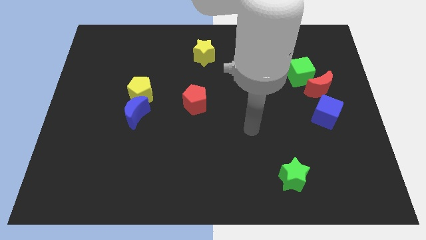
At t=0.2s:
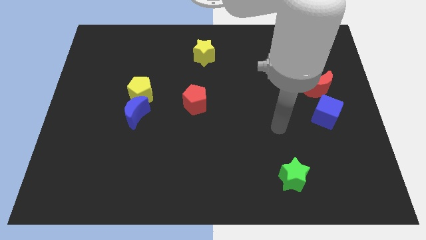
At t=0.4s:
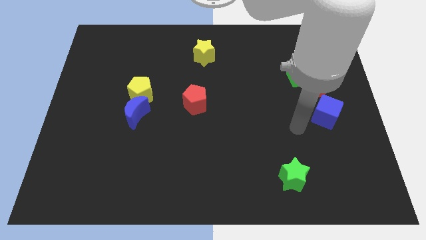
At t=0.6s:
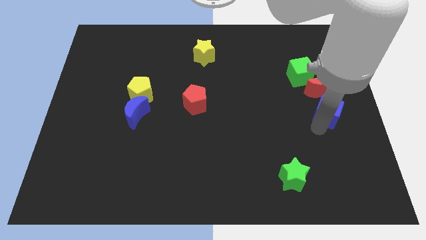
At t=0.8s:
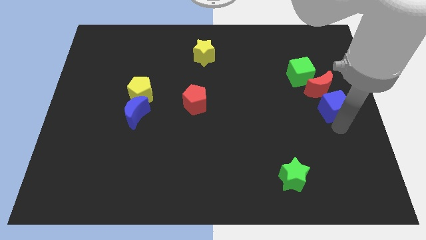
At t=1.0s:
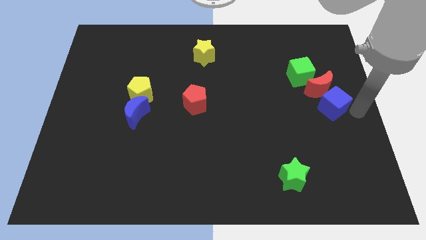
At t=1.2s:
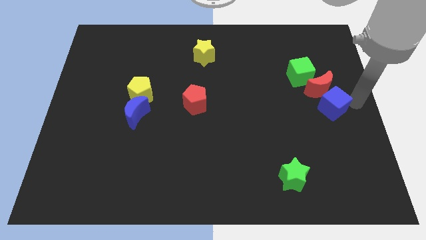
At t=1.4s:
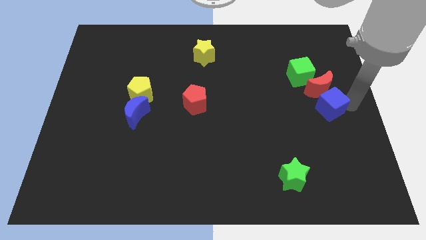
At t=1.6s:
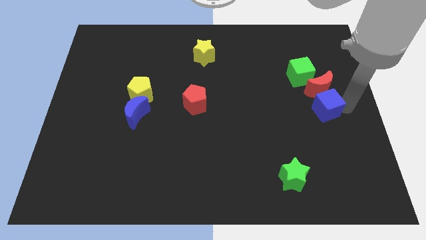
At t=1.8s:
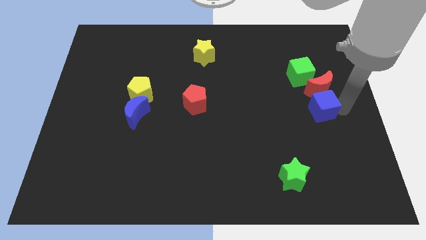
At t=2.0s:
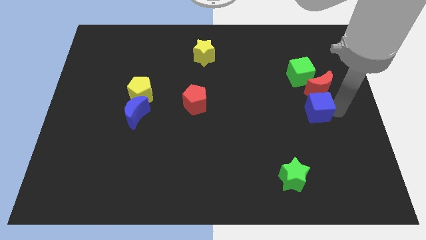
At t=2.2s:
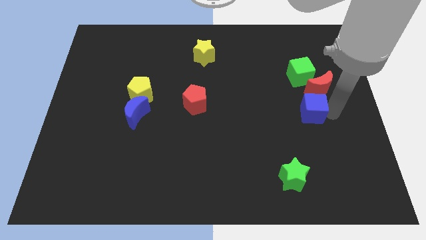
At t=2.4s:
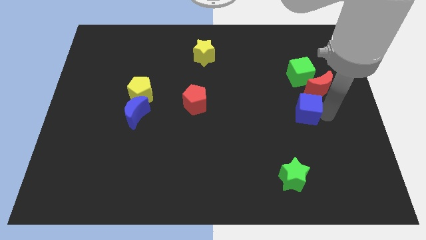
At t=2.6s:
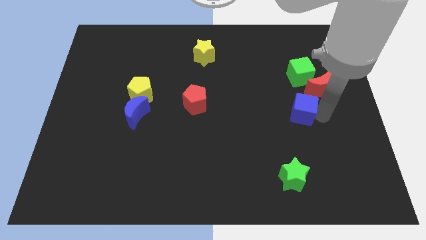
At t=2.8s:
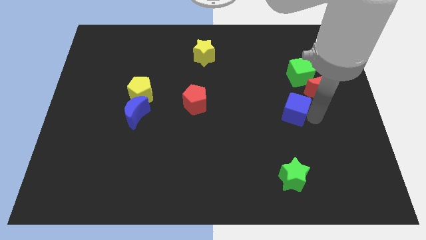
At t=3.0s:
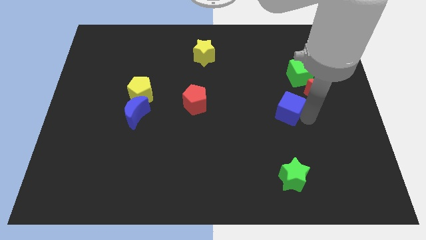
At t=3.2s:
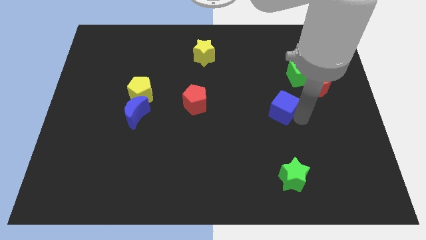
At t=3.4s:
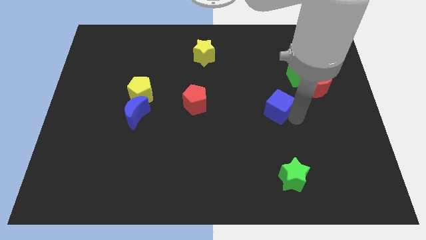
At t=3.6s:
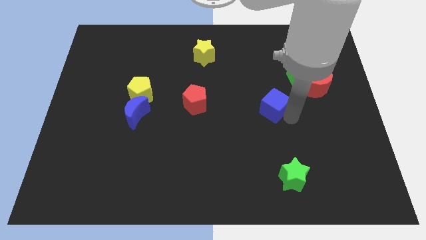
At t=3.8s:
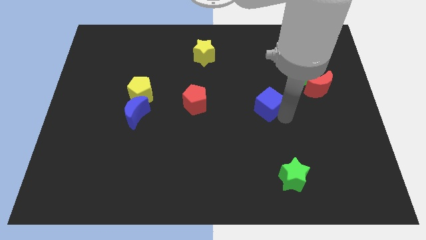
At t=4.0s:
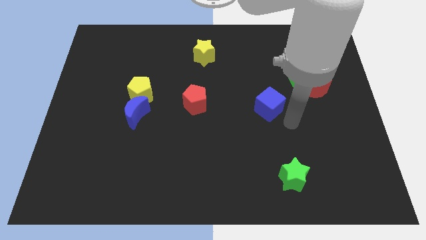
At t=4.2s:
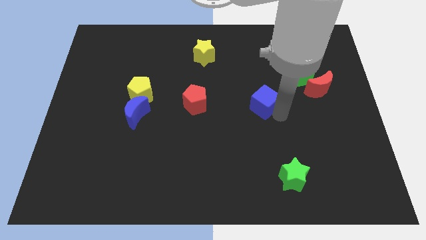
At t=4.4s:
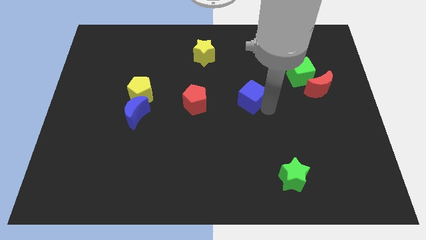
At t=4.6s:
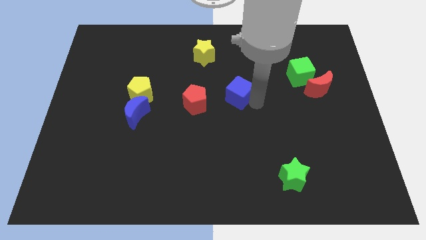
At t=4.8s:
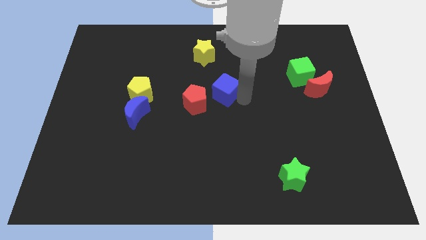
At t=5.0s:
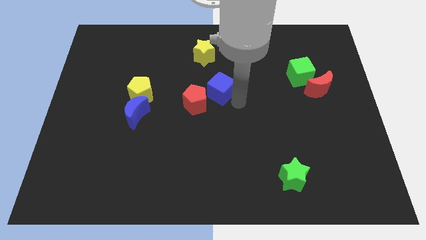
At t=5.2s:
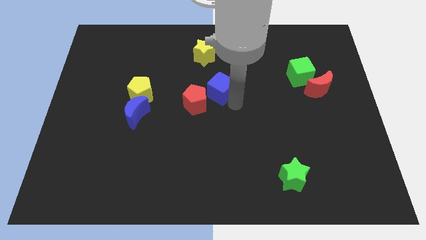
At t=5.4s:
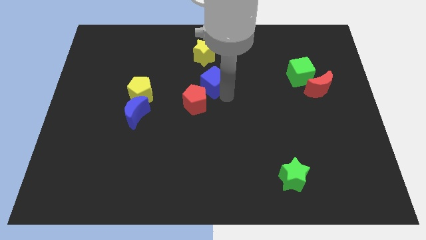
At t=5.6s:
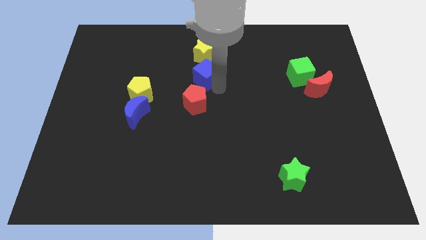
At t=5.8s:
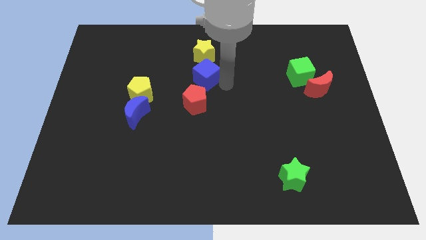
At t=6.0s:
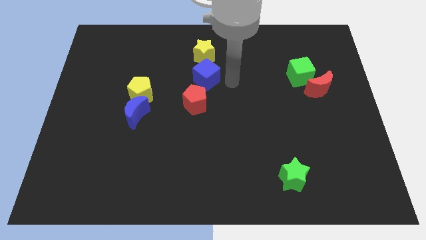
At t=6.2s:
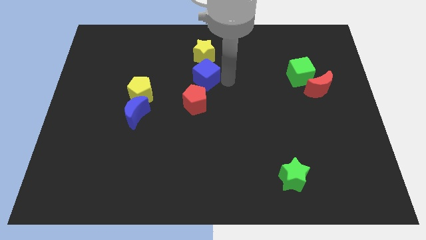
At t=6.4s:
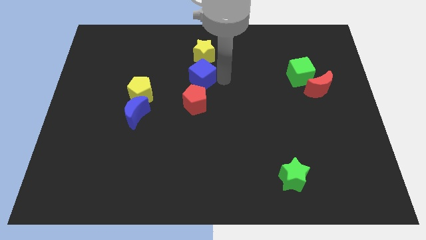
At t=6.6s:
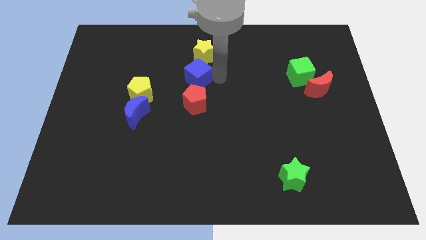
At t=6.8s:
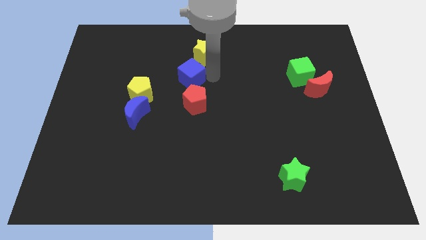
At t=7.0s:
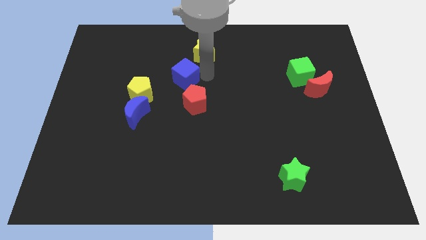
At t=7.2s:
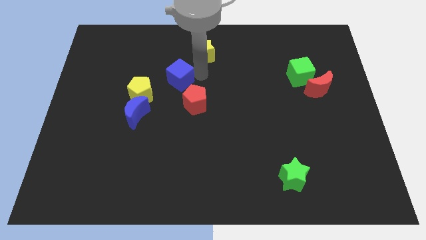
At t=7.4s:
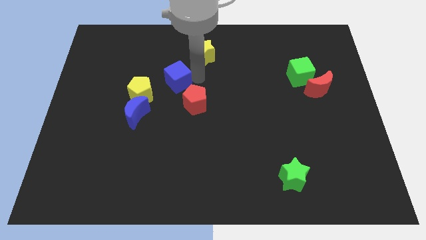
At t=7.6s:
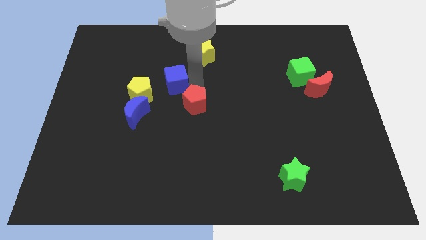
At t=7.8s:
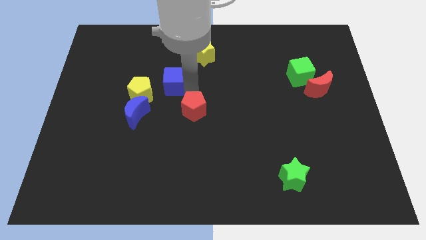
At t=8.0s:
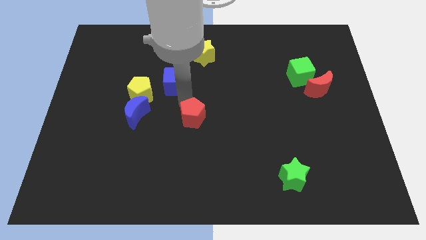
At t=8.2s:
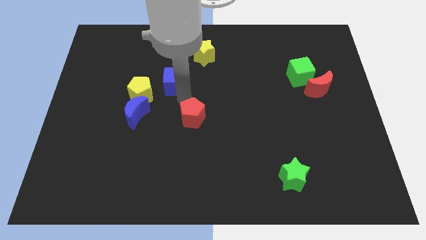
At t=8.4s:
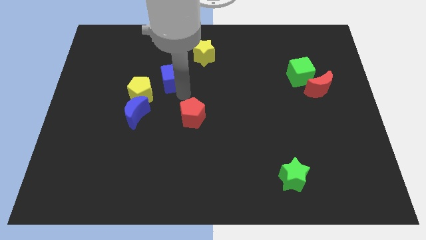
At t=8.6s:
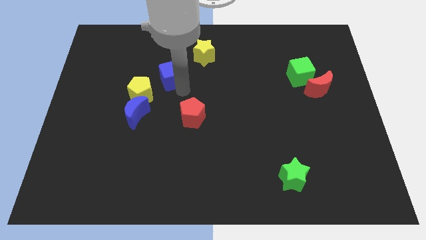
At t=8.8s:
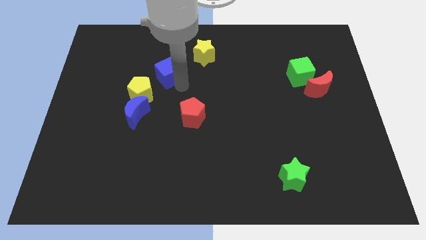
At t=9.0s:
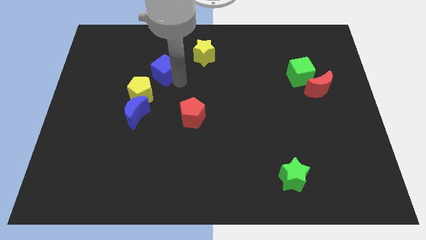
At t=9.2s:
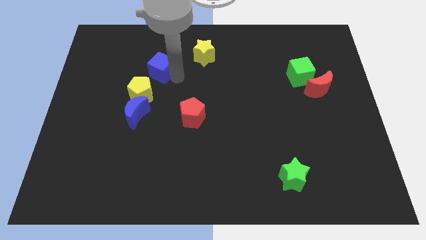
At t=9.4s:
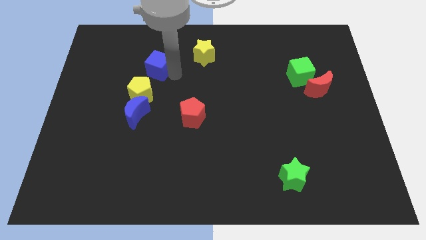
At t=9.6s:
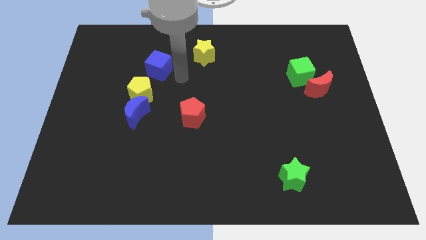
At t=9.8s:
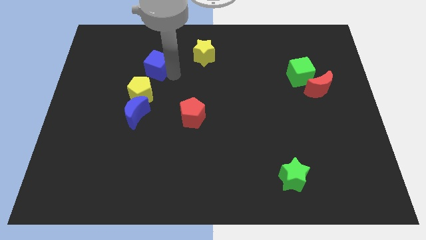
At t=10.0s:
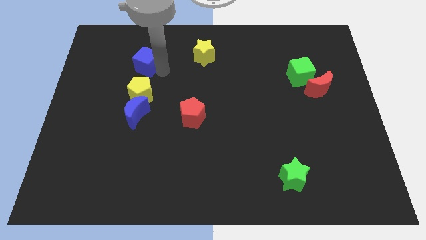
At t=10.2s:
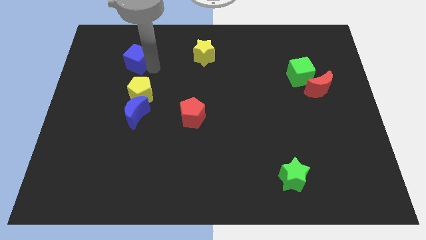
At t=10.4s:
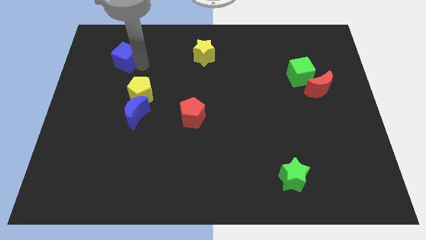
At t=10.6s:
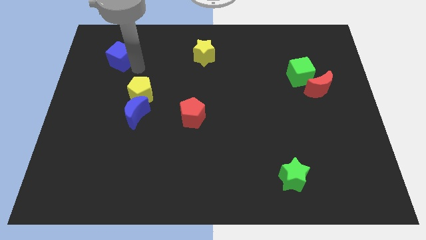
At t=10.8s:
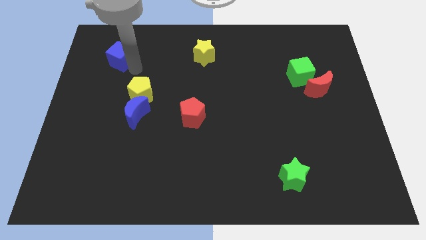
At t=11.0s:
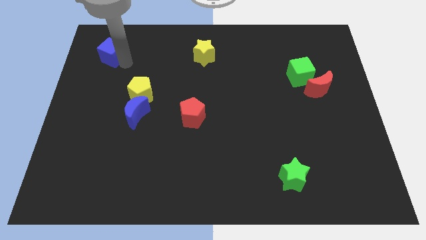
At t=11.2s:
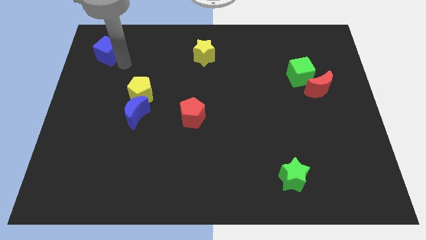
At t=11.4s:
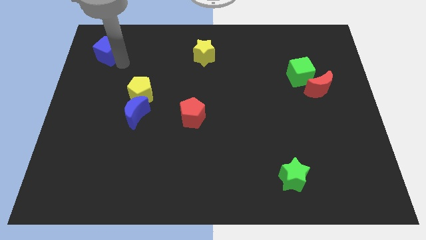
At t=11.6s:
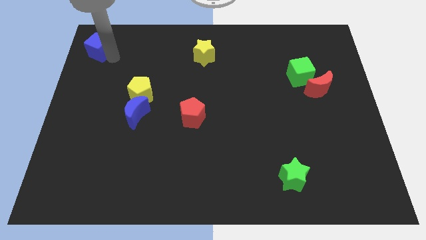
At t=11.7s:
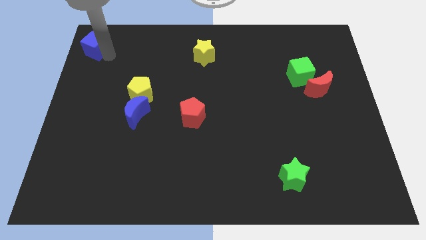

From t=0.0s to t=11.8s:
push the blue cube to the upper left corner

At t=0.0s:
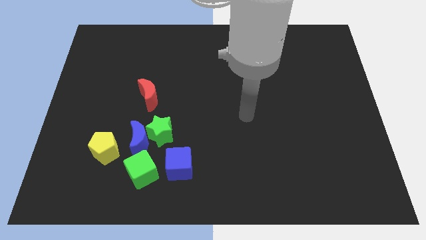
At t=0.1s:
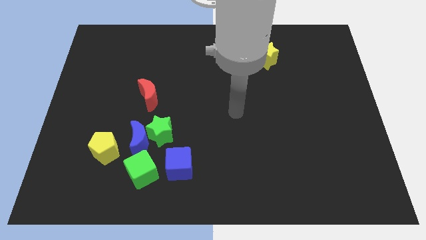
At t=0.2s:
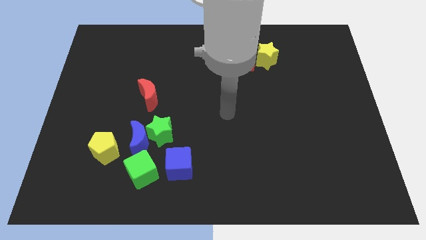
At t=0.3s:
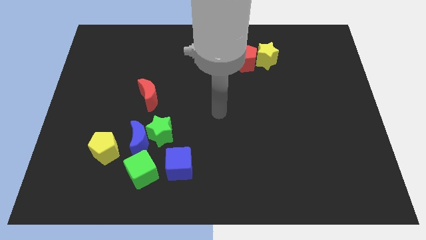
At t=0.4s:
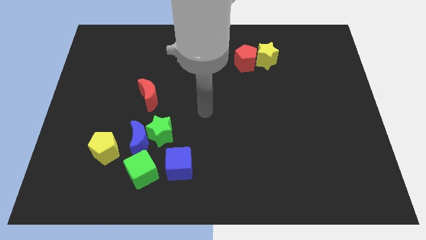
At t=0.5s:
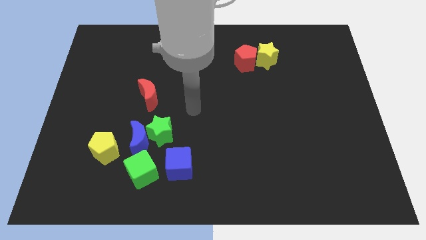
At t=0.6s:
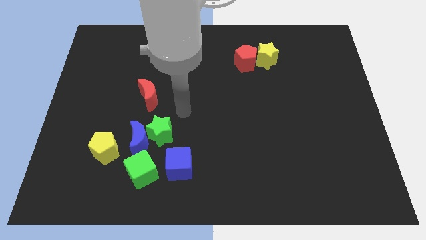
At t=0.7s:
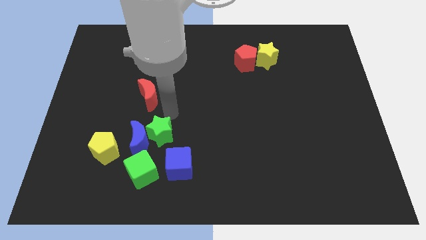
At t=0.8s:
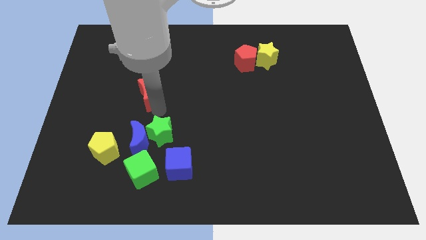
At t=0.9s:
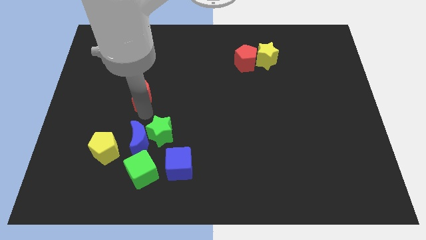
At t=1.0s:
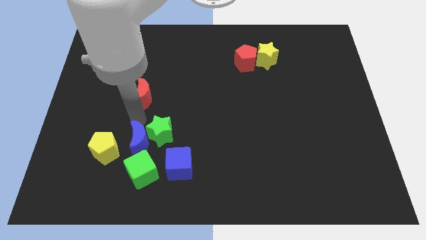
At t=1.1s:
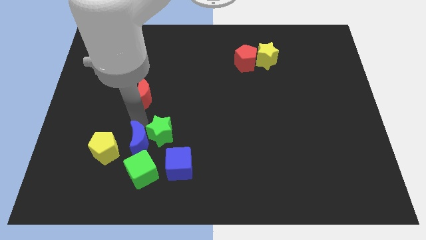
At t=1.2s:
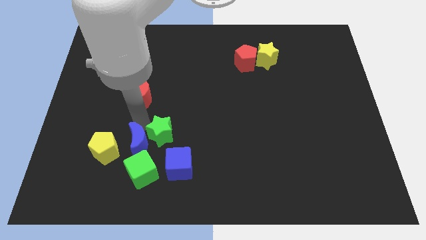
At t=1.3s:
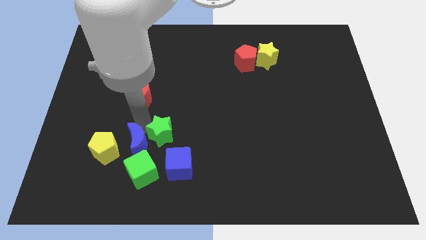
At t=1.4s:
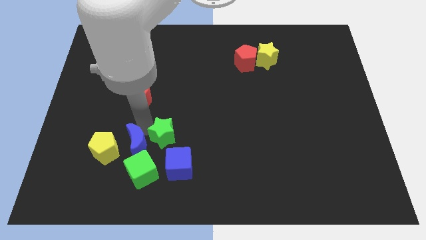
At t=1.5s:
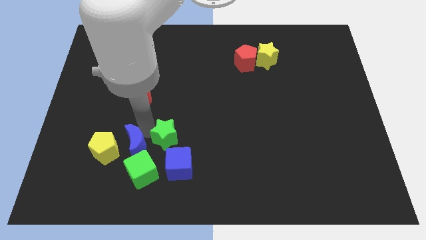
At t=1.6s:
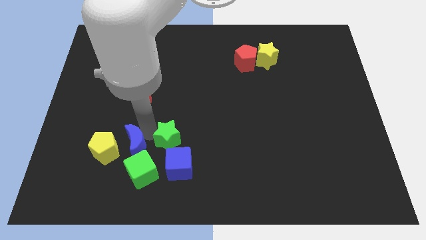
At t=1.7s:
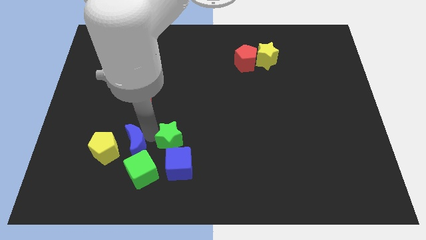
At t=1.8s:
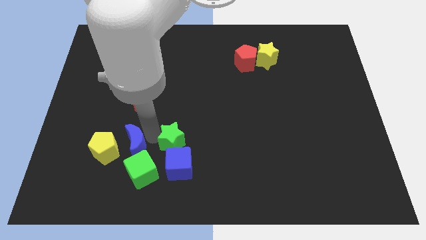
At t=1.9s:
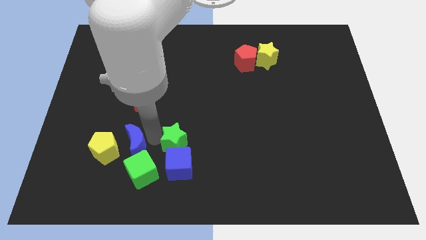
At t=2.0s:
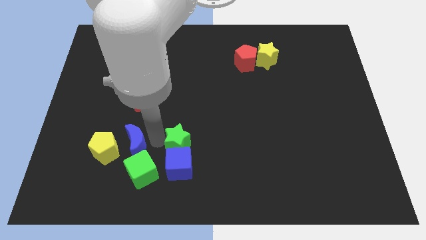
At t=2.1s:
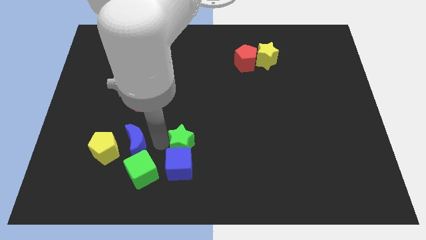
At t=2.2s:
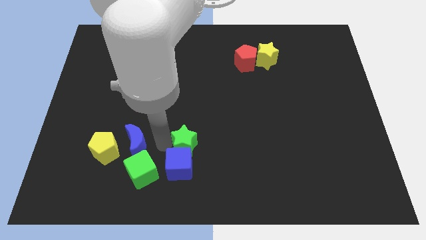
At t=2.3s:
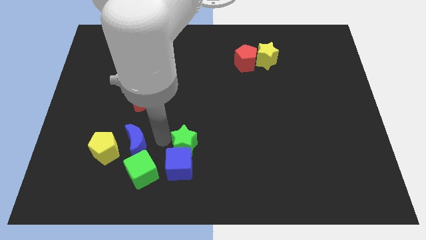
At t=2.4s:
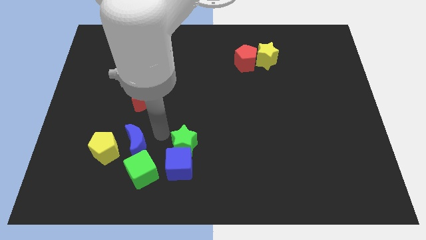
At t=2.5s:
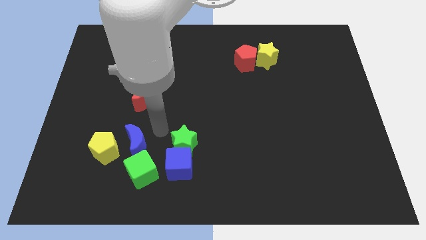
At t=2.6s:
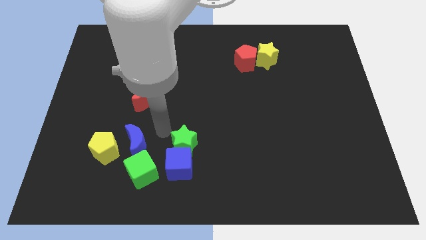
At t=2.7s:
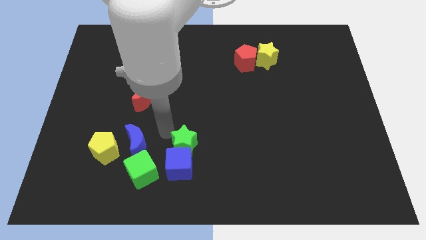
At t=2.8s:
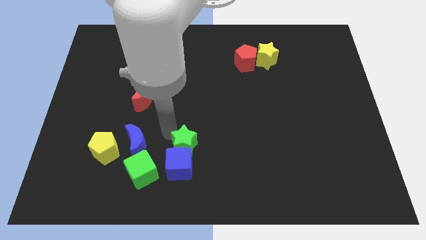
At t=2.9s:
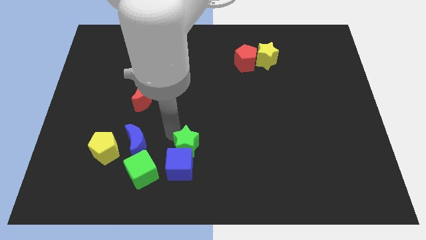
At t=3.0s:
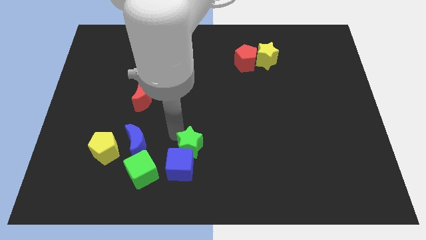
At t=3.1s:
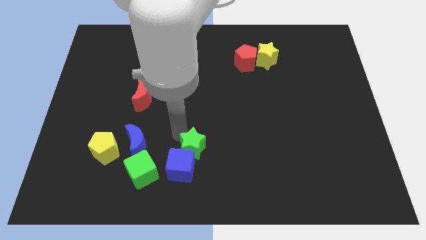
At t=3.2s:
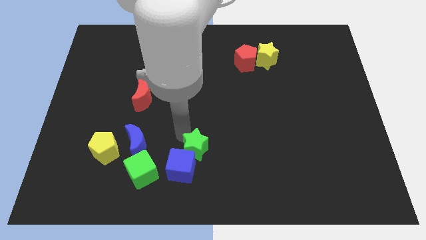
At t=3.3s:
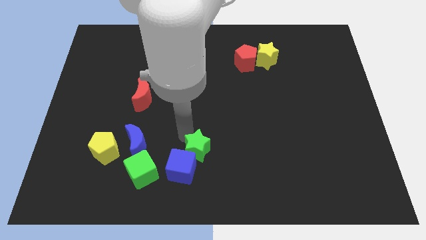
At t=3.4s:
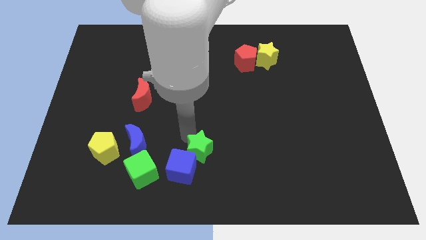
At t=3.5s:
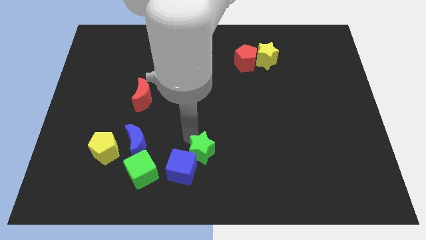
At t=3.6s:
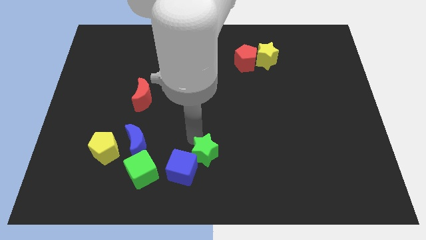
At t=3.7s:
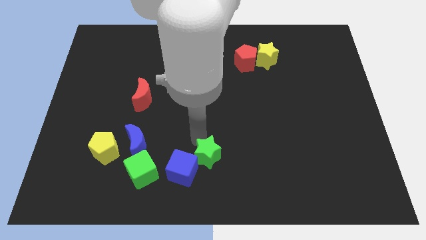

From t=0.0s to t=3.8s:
slide the green star to the bottom
